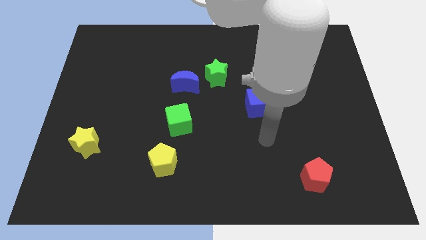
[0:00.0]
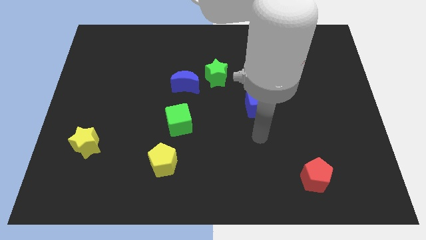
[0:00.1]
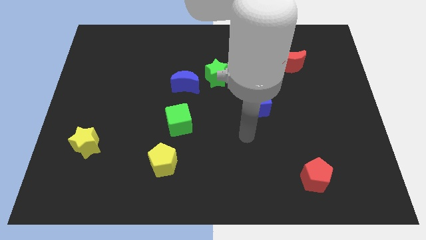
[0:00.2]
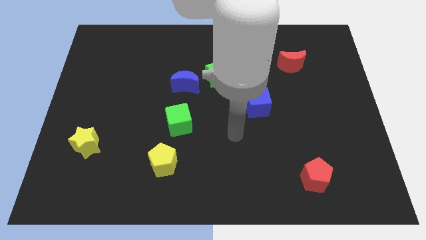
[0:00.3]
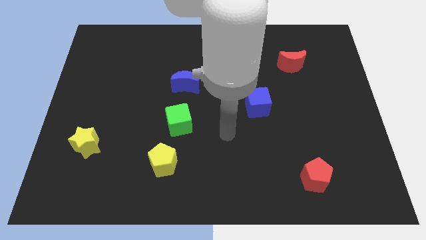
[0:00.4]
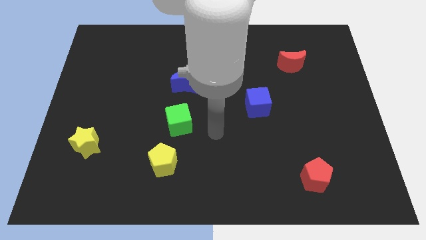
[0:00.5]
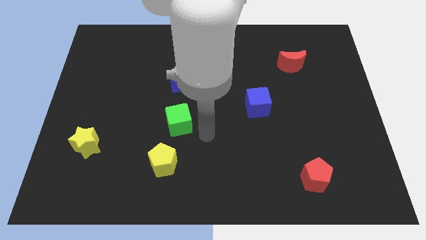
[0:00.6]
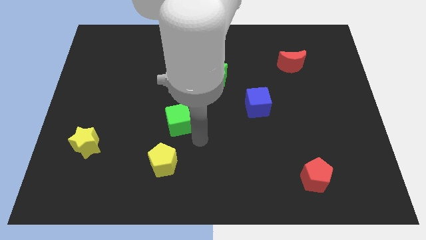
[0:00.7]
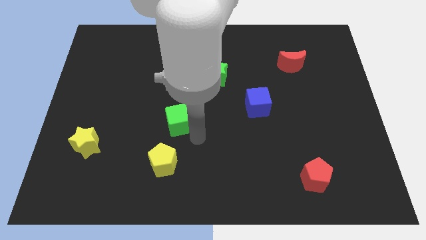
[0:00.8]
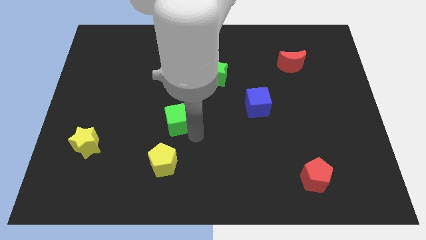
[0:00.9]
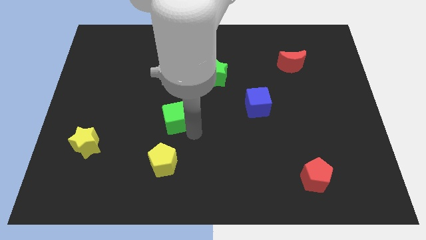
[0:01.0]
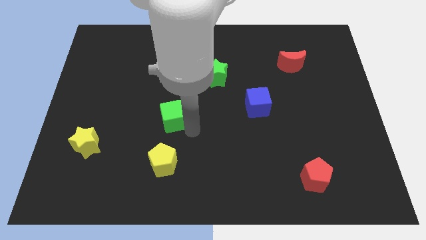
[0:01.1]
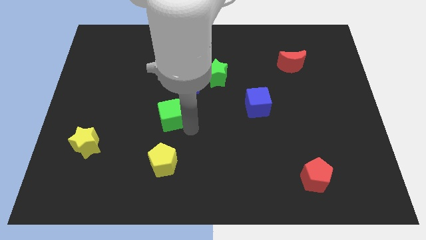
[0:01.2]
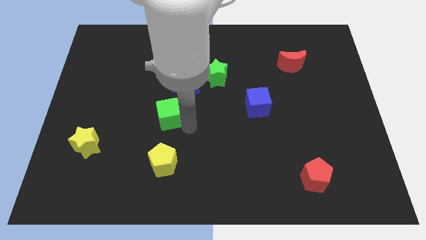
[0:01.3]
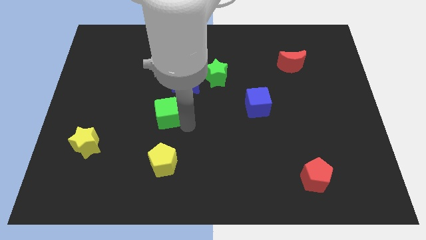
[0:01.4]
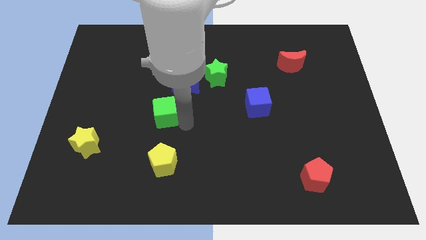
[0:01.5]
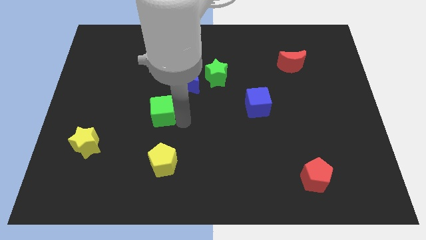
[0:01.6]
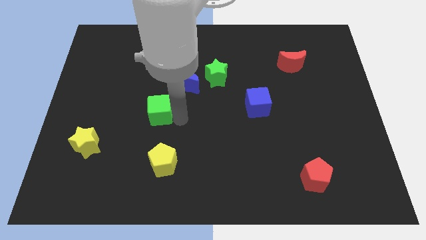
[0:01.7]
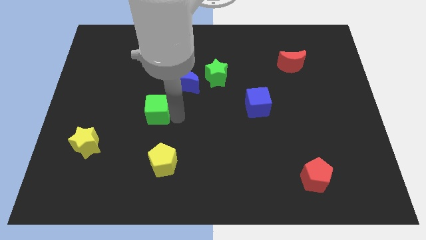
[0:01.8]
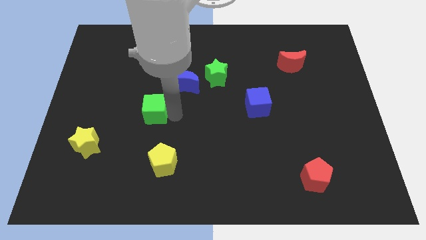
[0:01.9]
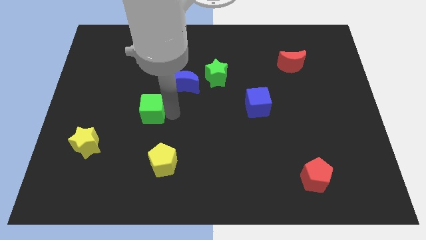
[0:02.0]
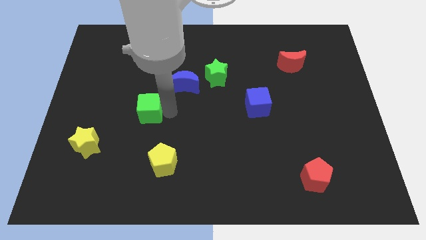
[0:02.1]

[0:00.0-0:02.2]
slightly move the green cube up and left diagonally

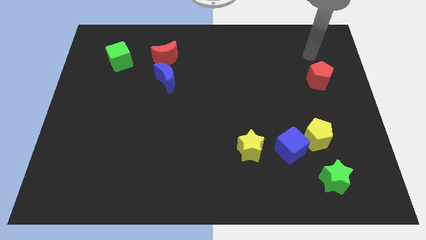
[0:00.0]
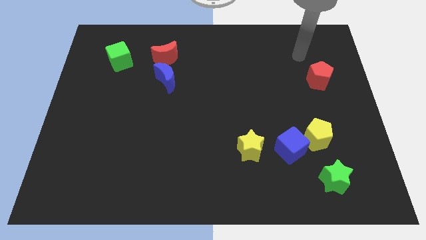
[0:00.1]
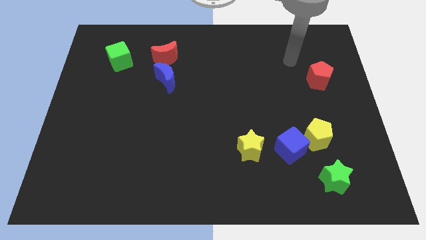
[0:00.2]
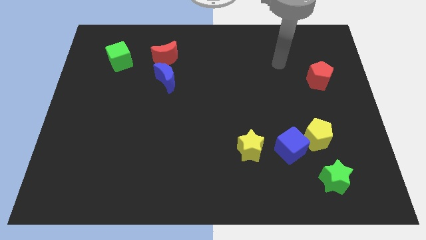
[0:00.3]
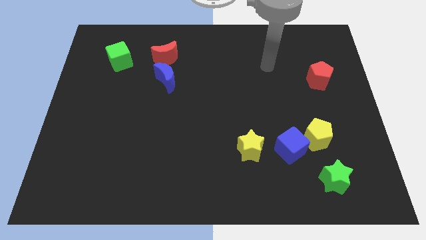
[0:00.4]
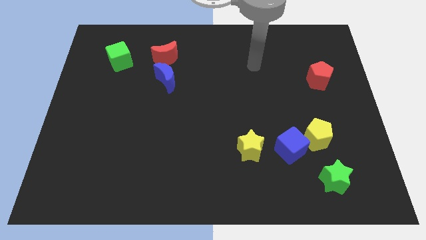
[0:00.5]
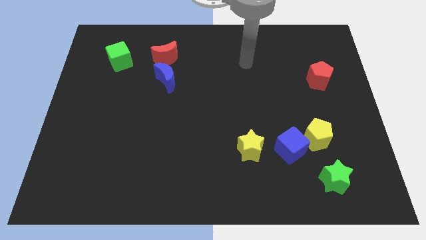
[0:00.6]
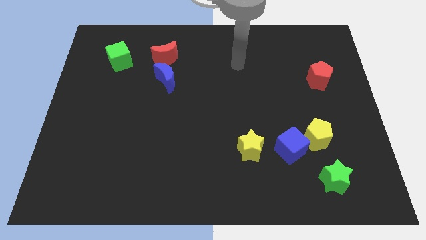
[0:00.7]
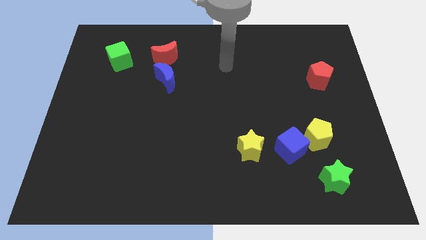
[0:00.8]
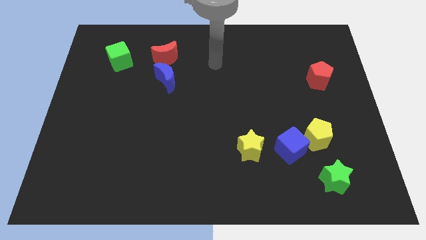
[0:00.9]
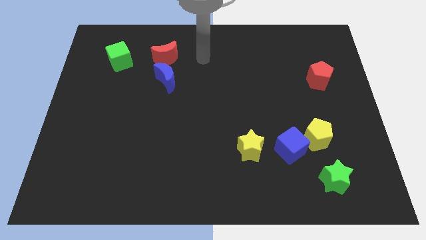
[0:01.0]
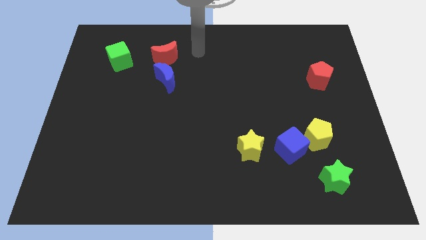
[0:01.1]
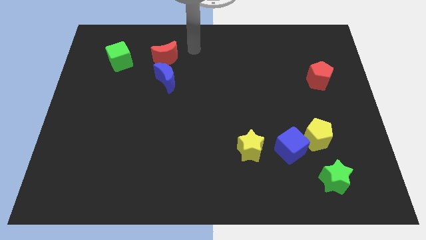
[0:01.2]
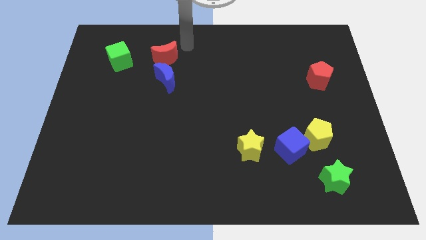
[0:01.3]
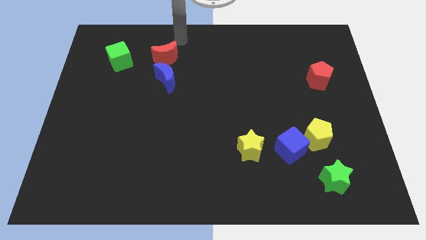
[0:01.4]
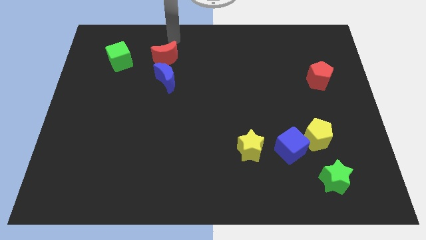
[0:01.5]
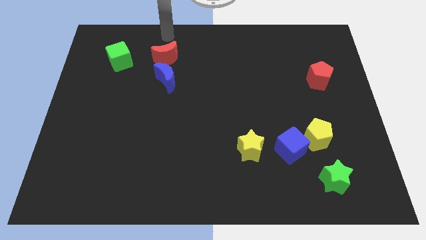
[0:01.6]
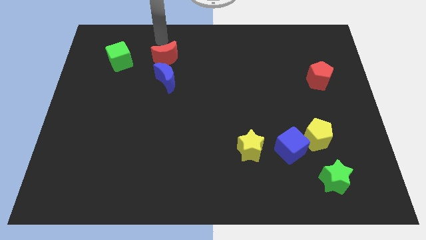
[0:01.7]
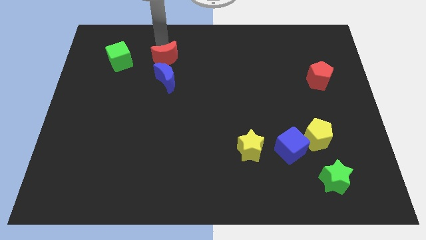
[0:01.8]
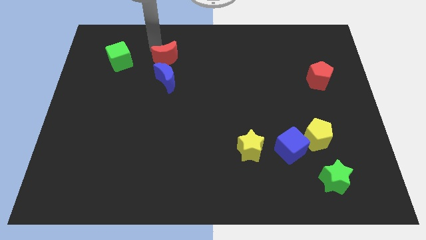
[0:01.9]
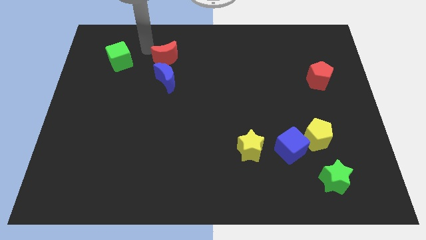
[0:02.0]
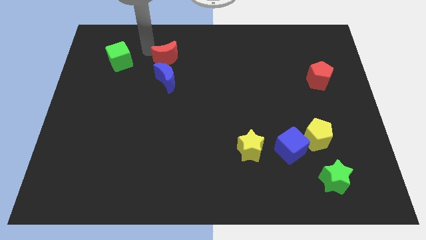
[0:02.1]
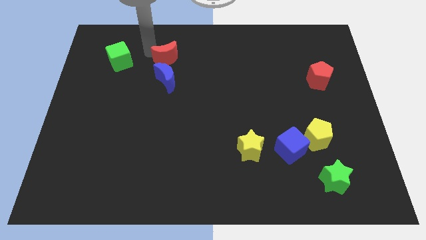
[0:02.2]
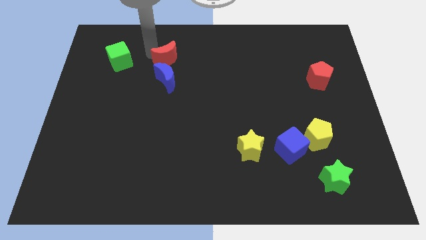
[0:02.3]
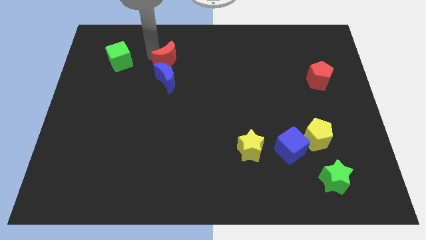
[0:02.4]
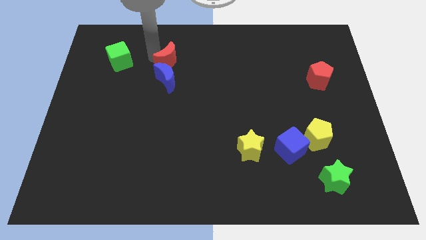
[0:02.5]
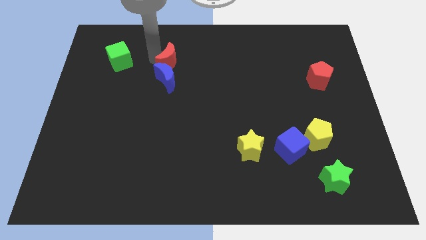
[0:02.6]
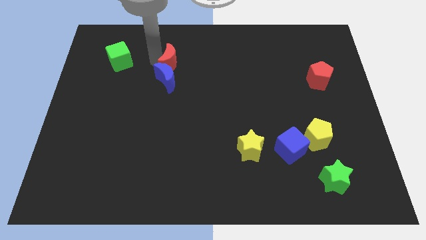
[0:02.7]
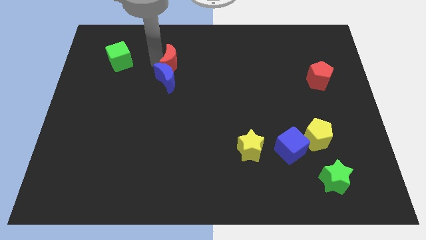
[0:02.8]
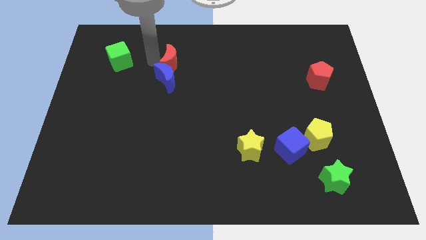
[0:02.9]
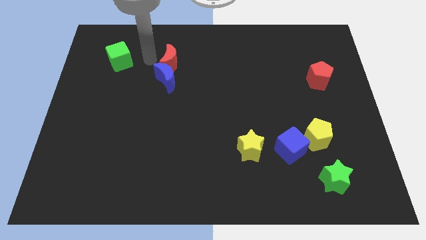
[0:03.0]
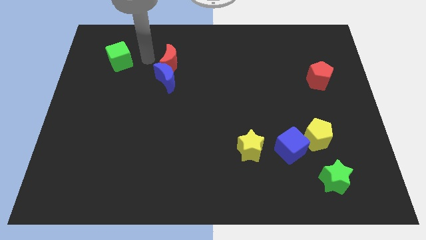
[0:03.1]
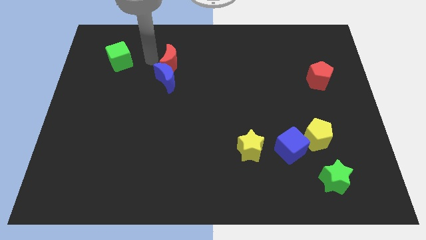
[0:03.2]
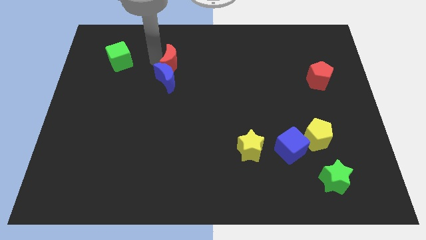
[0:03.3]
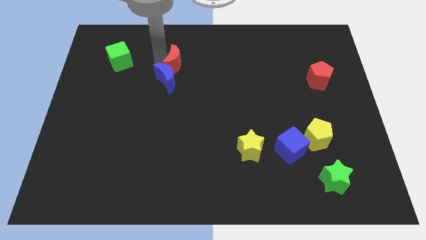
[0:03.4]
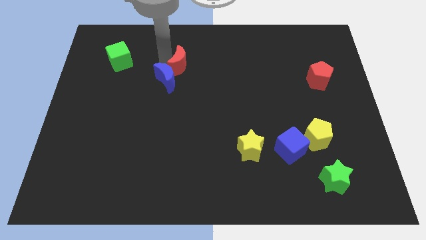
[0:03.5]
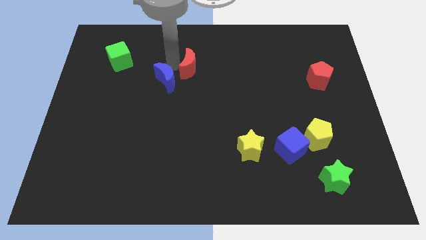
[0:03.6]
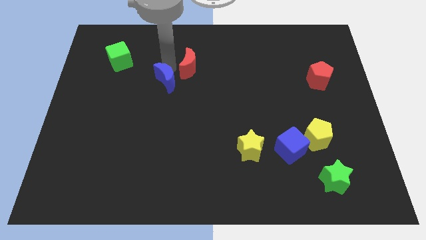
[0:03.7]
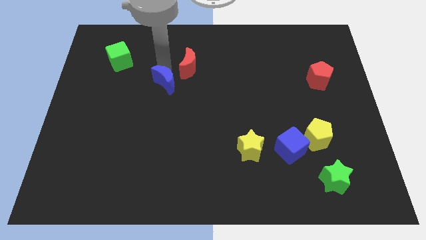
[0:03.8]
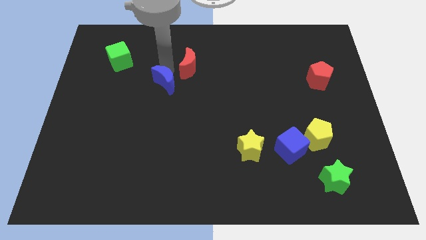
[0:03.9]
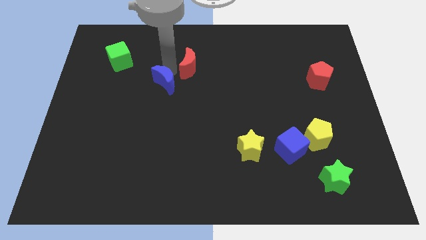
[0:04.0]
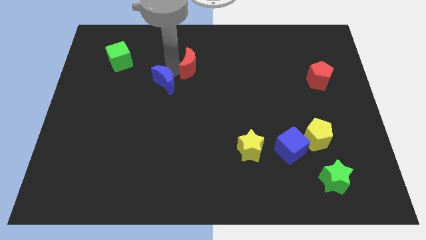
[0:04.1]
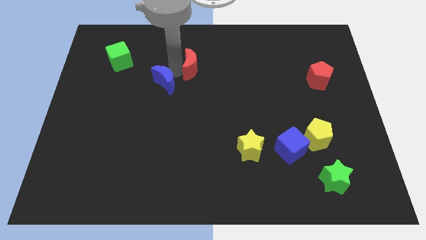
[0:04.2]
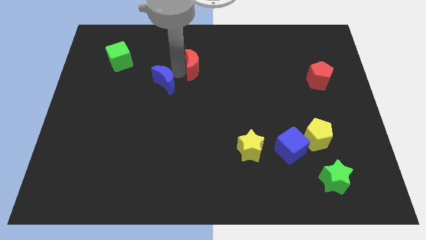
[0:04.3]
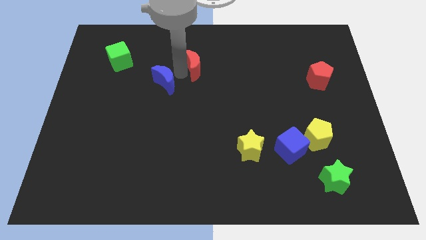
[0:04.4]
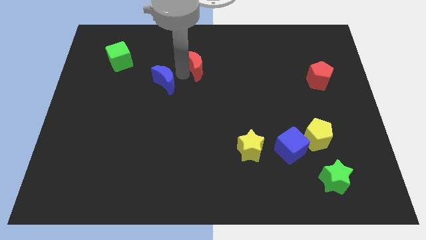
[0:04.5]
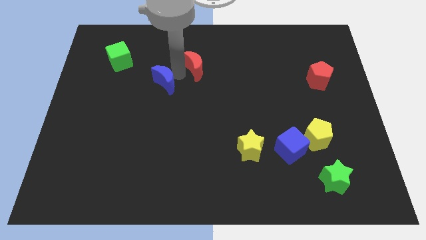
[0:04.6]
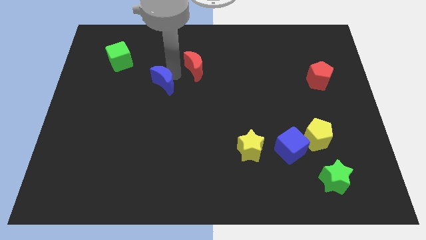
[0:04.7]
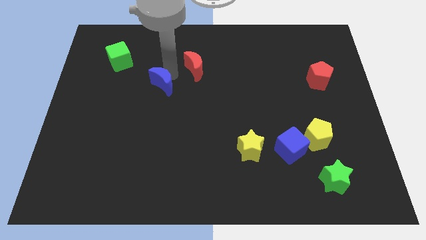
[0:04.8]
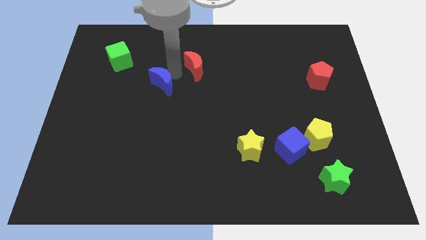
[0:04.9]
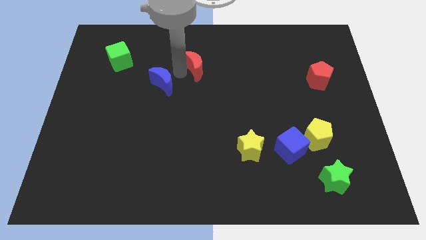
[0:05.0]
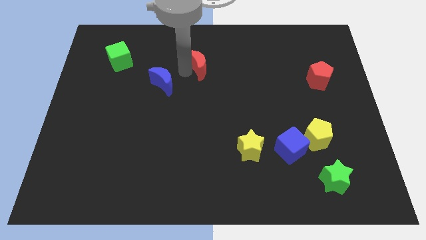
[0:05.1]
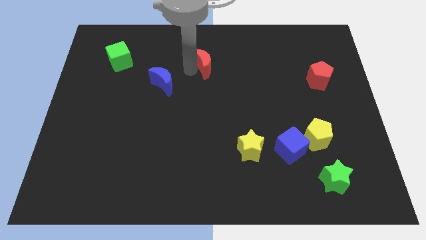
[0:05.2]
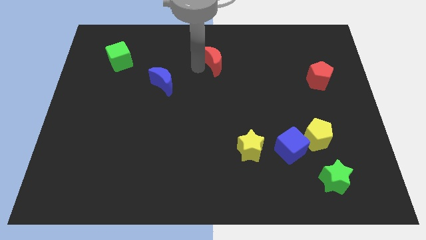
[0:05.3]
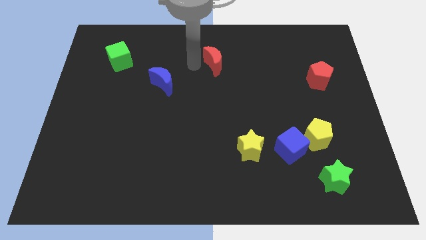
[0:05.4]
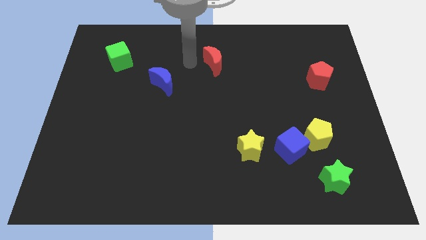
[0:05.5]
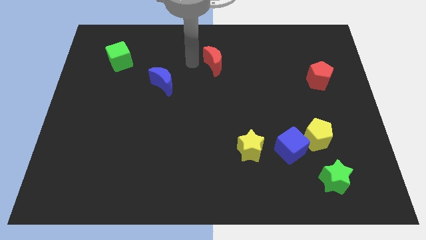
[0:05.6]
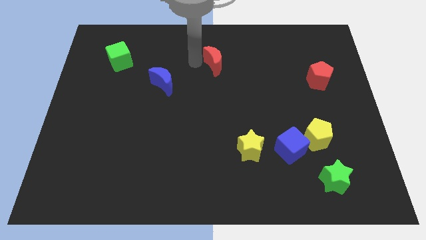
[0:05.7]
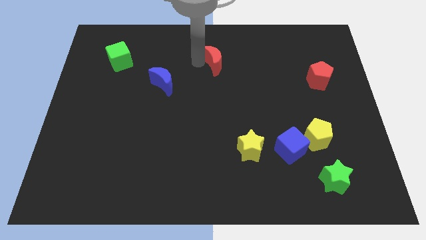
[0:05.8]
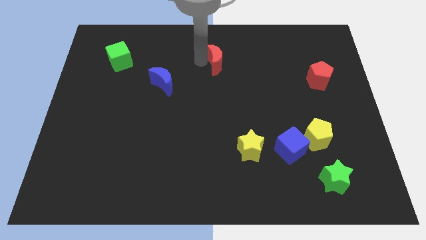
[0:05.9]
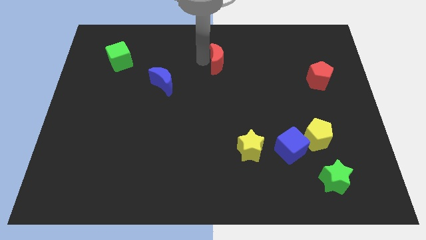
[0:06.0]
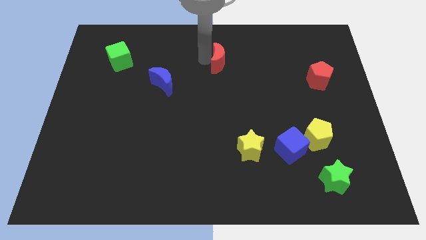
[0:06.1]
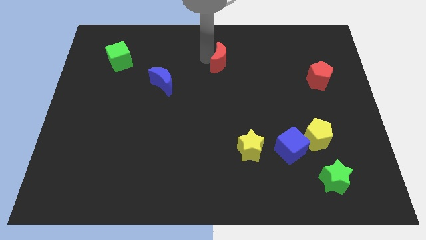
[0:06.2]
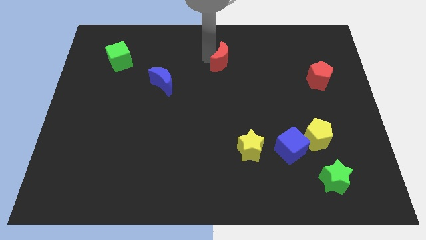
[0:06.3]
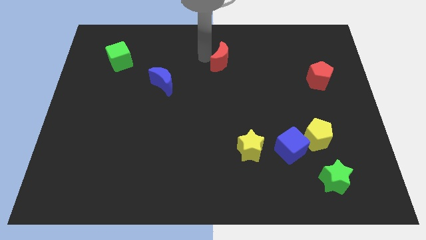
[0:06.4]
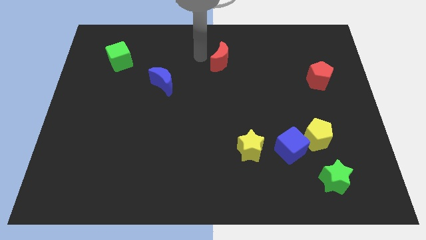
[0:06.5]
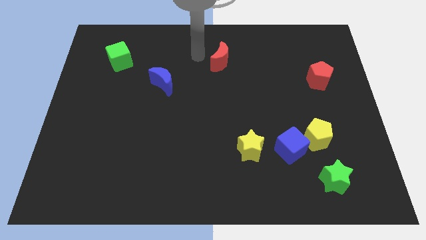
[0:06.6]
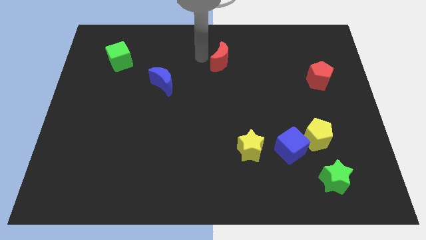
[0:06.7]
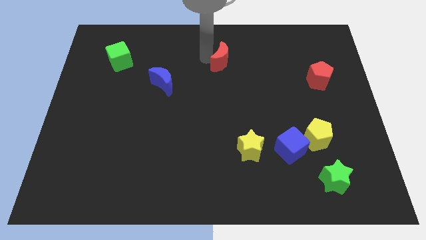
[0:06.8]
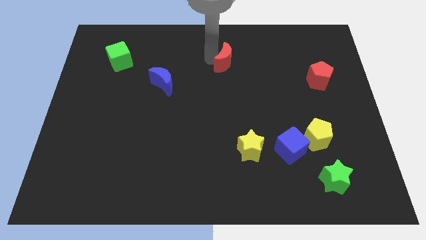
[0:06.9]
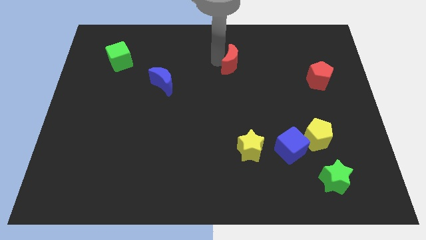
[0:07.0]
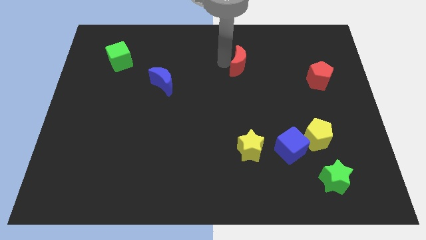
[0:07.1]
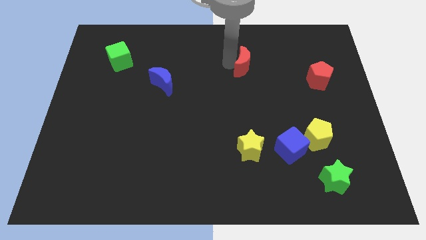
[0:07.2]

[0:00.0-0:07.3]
push the red moon right
